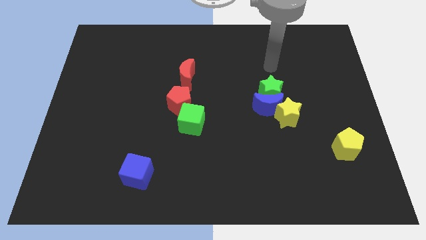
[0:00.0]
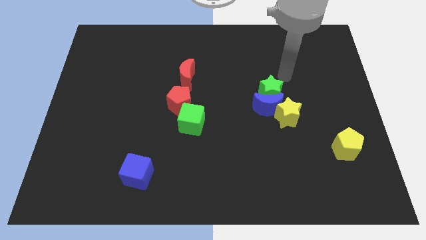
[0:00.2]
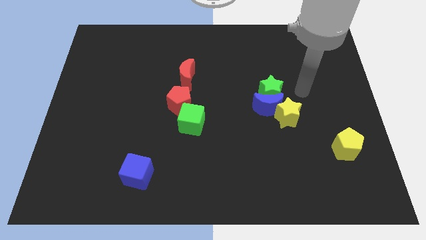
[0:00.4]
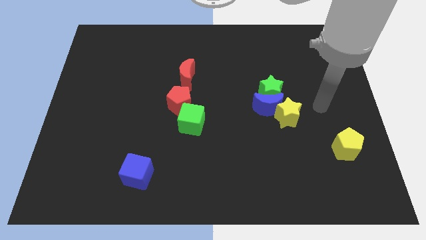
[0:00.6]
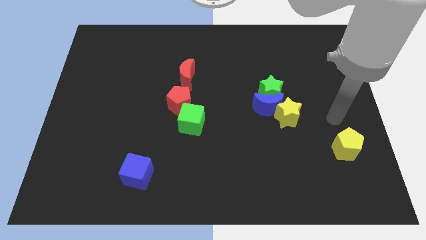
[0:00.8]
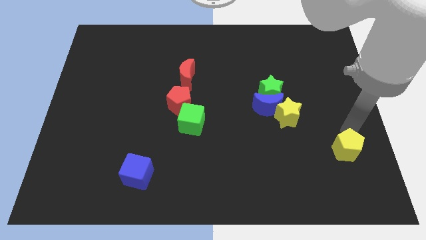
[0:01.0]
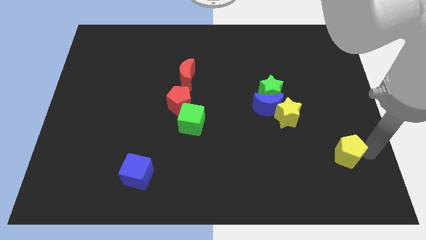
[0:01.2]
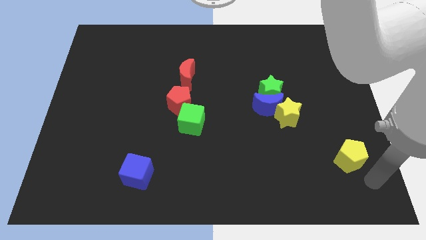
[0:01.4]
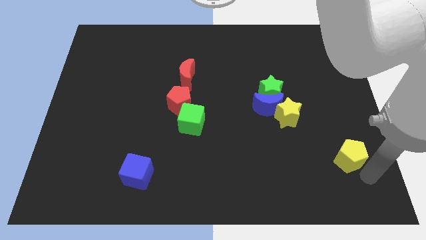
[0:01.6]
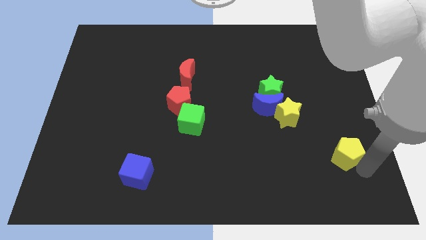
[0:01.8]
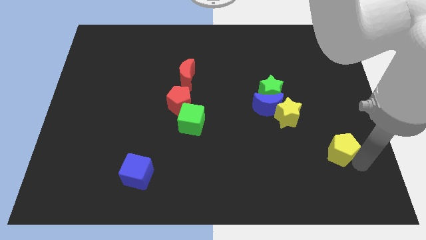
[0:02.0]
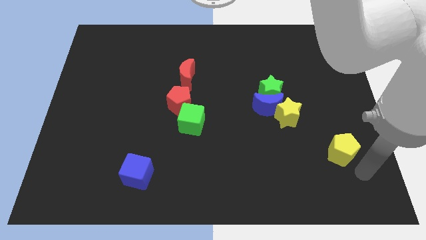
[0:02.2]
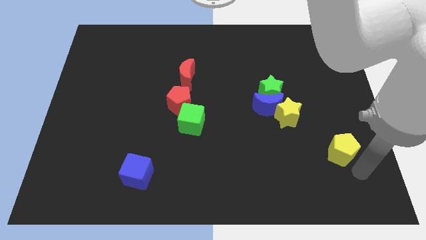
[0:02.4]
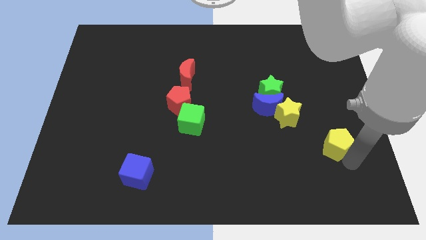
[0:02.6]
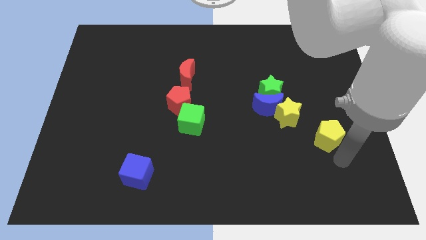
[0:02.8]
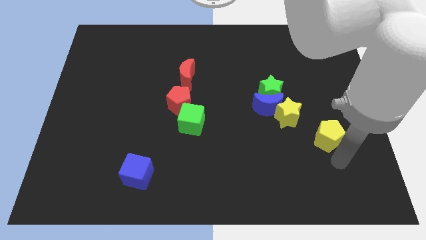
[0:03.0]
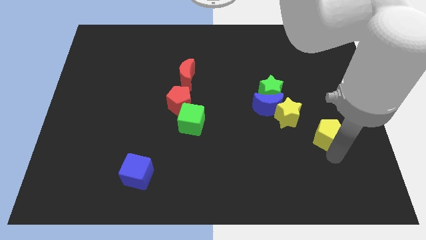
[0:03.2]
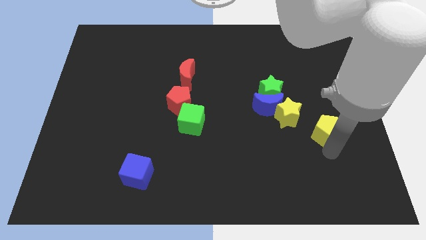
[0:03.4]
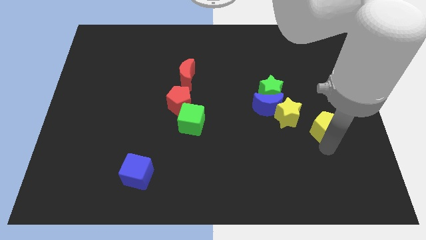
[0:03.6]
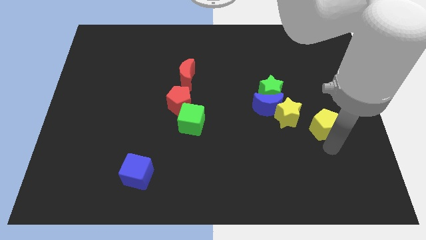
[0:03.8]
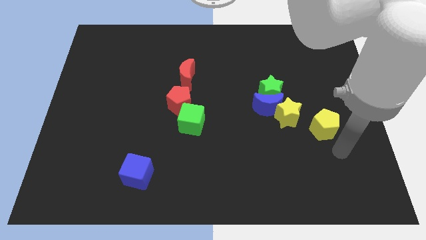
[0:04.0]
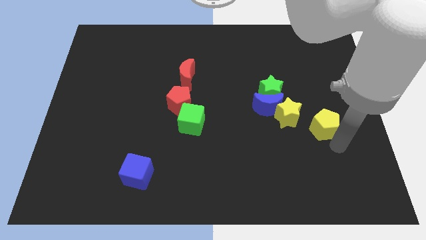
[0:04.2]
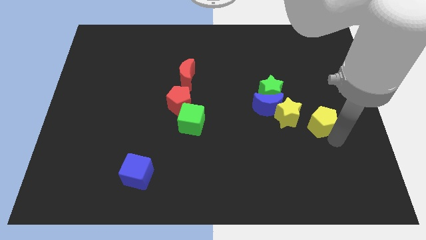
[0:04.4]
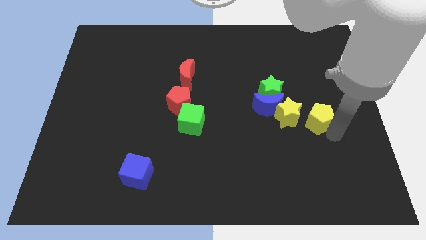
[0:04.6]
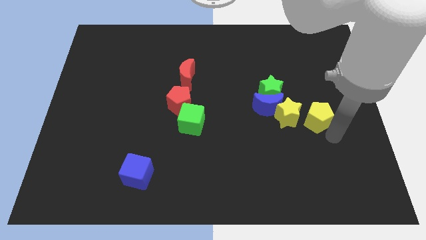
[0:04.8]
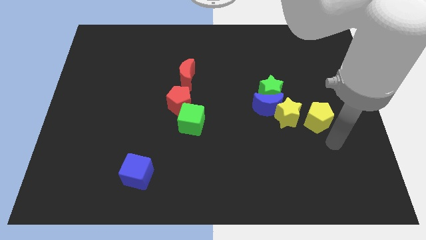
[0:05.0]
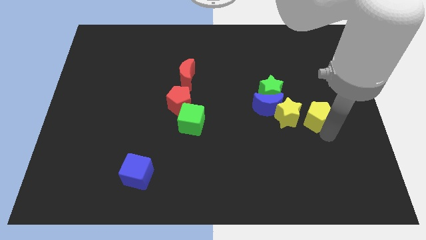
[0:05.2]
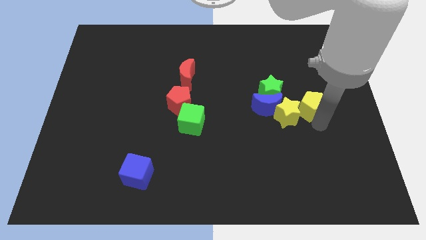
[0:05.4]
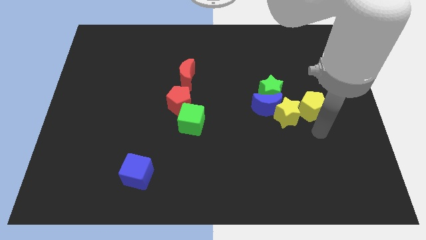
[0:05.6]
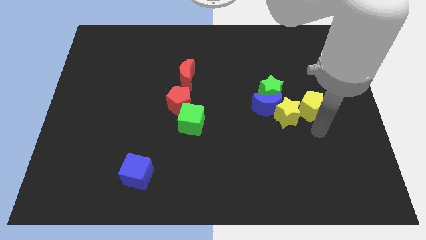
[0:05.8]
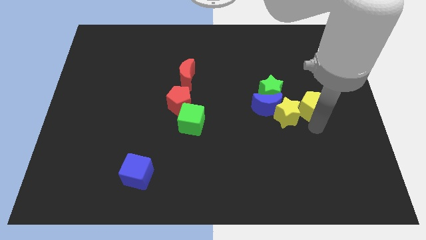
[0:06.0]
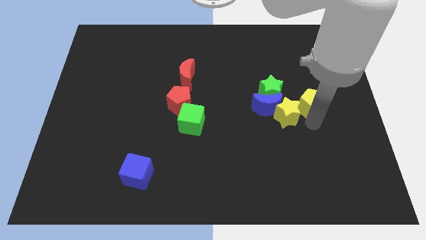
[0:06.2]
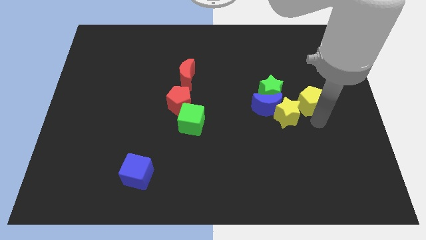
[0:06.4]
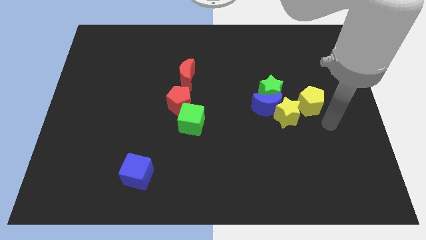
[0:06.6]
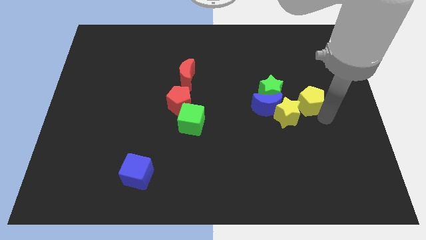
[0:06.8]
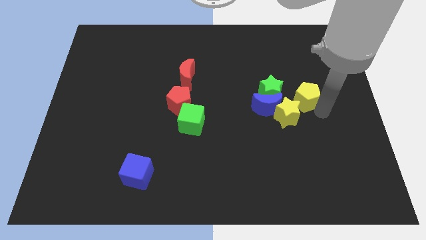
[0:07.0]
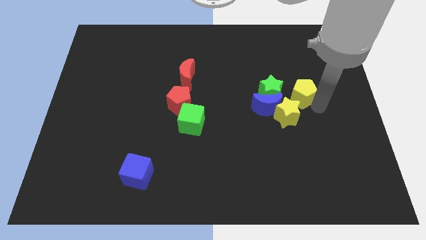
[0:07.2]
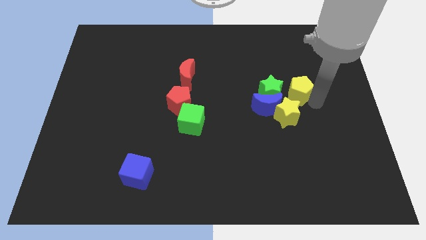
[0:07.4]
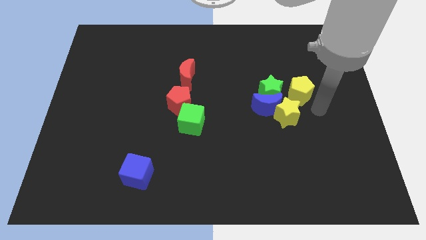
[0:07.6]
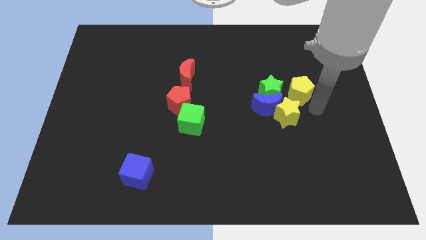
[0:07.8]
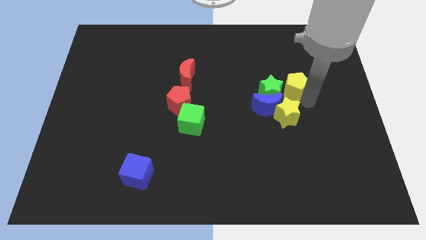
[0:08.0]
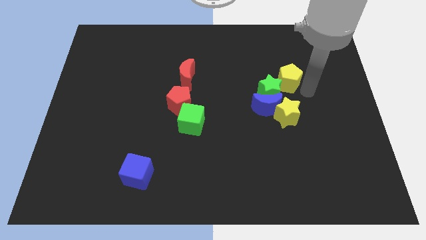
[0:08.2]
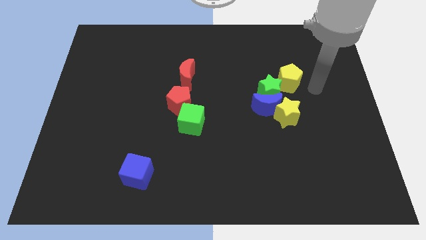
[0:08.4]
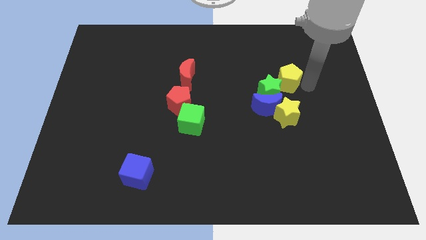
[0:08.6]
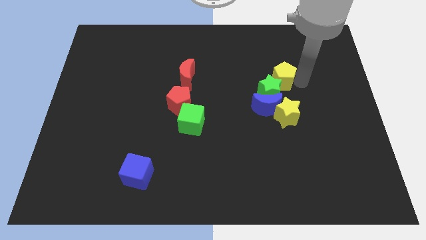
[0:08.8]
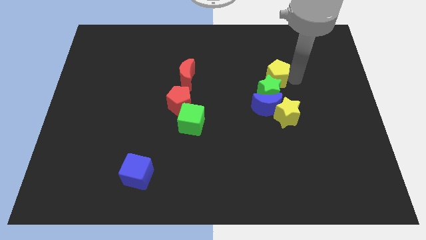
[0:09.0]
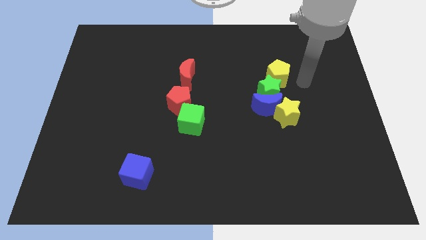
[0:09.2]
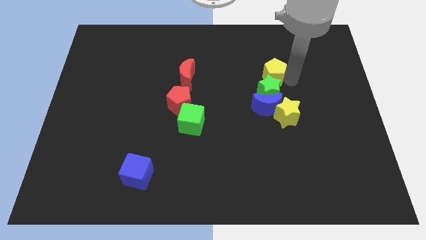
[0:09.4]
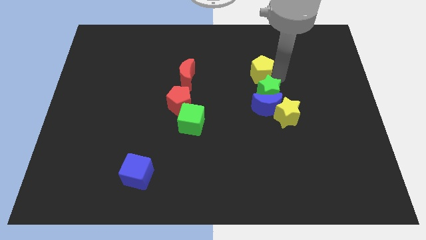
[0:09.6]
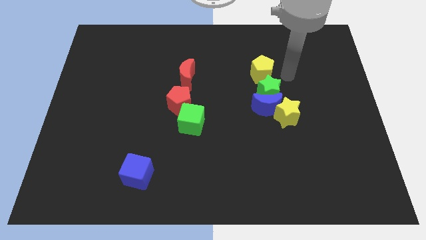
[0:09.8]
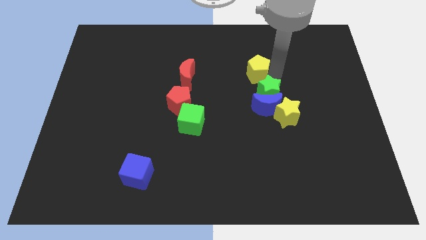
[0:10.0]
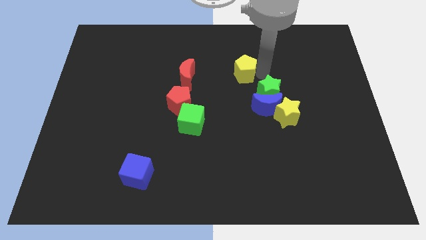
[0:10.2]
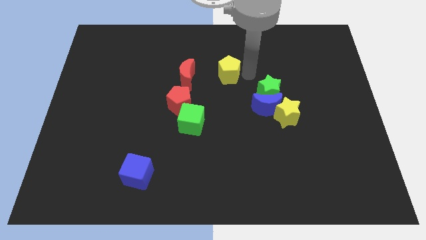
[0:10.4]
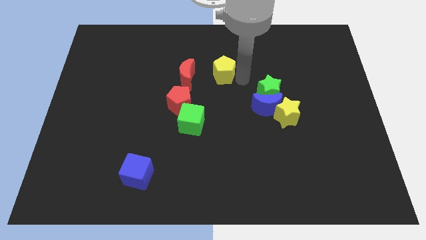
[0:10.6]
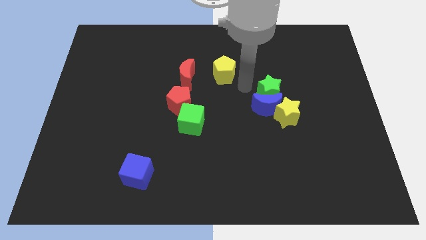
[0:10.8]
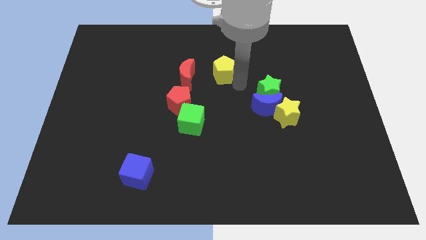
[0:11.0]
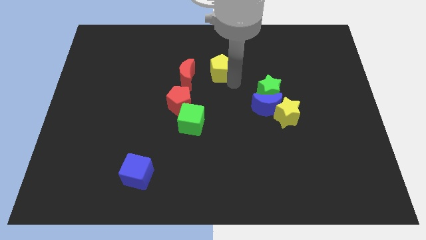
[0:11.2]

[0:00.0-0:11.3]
move the yellow pentagon to the top right of the red moon

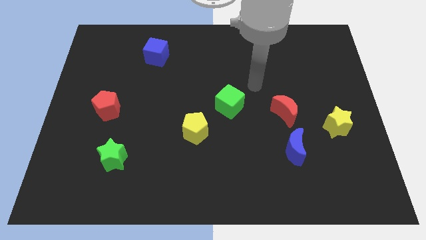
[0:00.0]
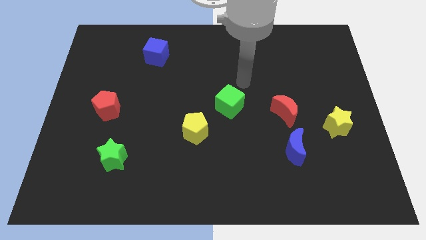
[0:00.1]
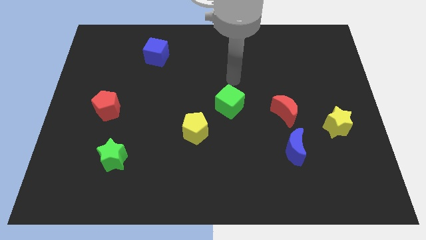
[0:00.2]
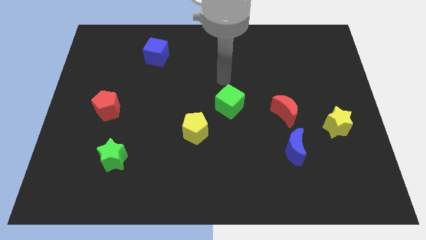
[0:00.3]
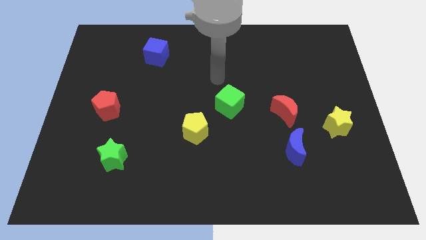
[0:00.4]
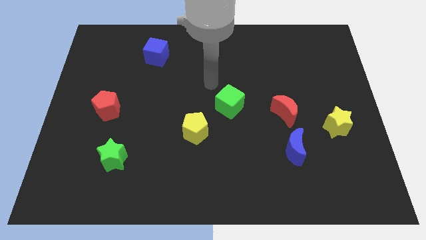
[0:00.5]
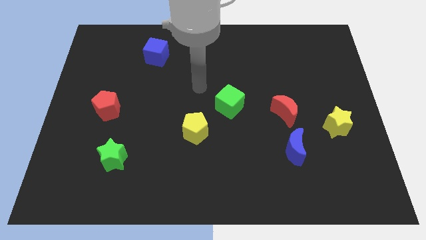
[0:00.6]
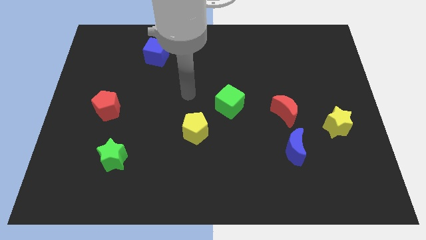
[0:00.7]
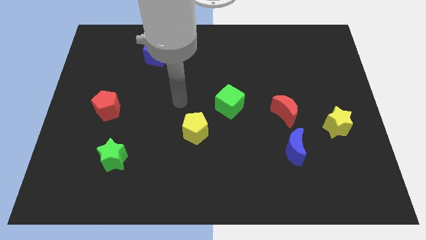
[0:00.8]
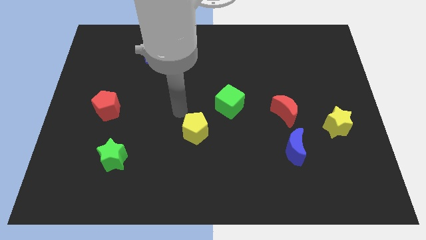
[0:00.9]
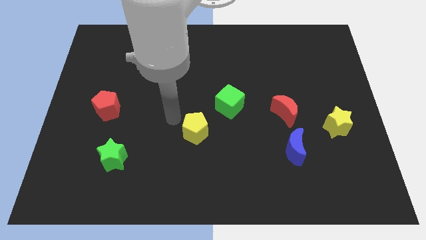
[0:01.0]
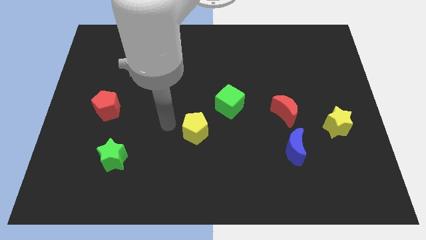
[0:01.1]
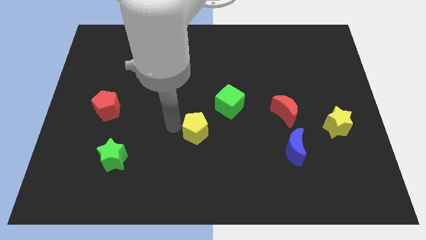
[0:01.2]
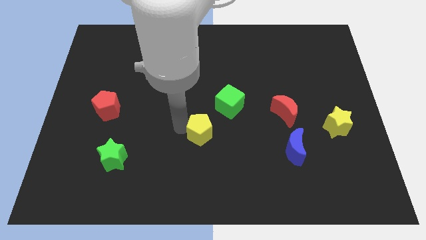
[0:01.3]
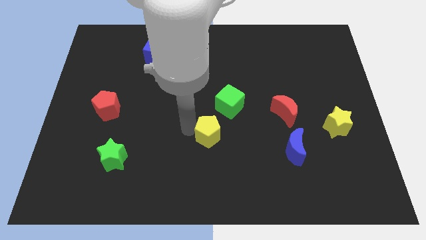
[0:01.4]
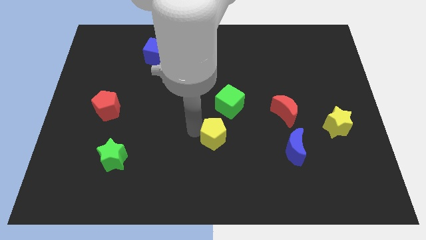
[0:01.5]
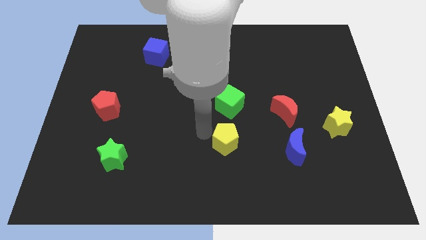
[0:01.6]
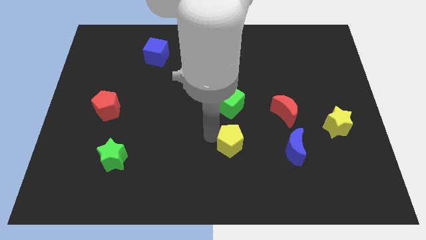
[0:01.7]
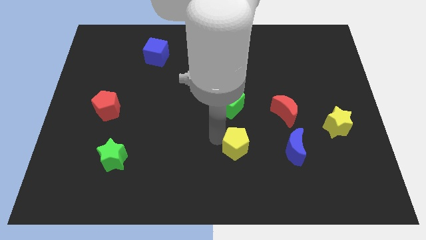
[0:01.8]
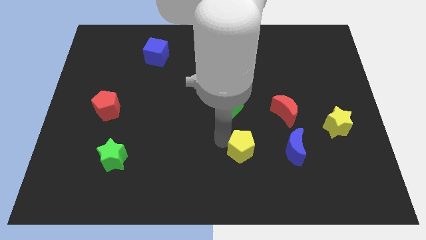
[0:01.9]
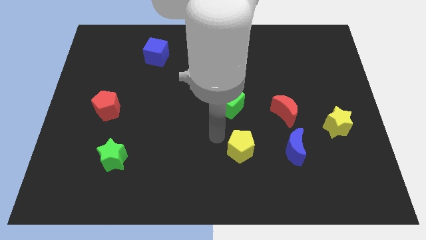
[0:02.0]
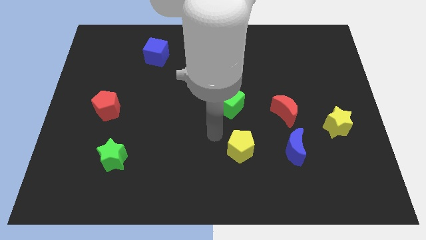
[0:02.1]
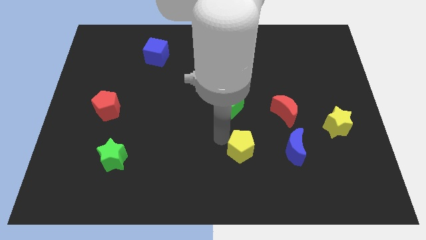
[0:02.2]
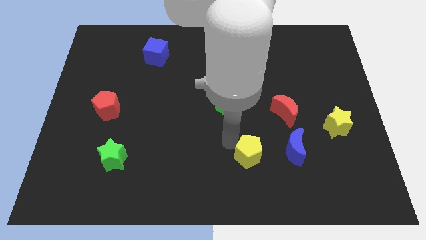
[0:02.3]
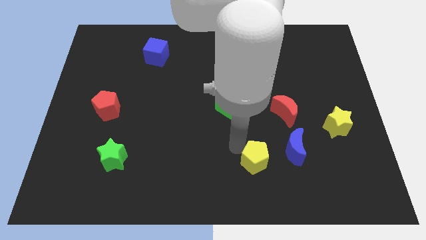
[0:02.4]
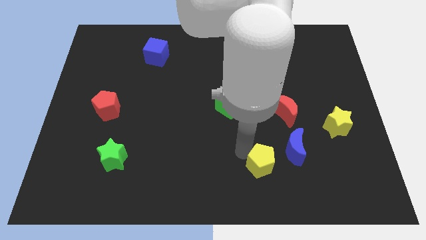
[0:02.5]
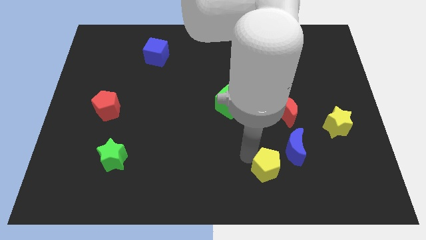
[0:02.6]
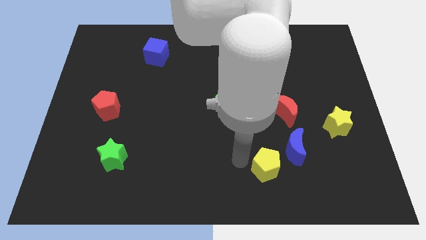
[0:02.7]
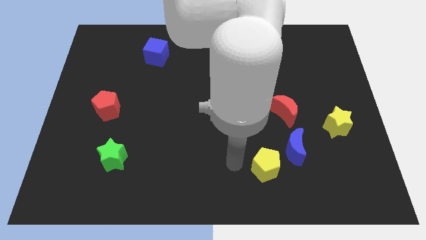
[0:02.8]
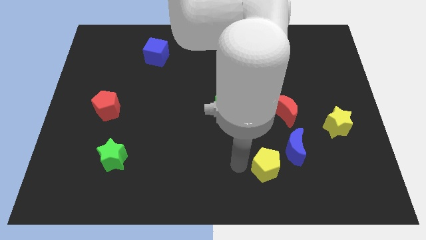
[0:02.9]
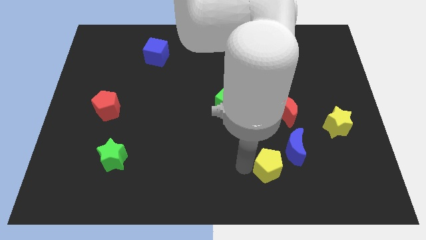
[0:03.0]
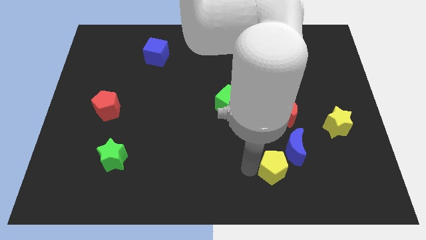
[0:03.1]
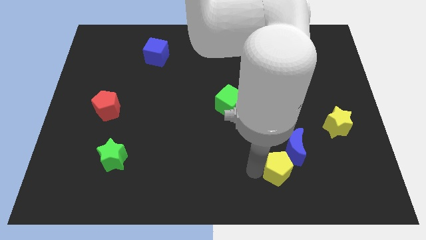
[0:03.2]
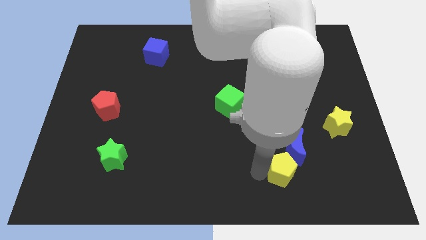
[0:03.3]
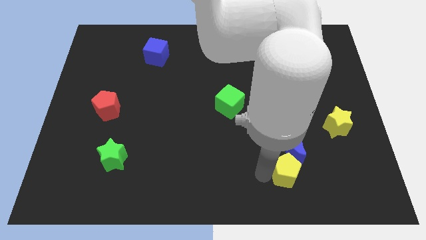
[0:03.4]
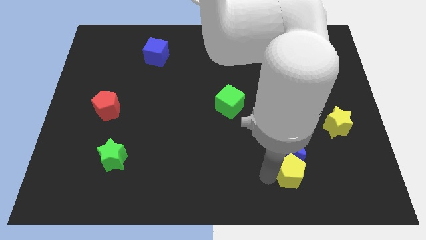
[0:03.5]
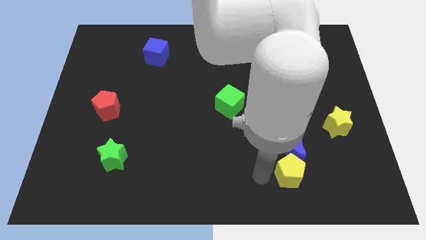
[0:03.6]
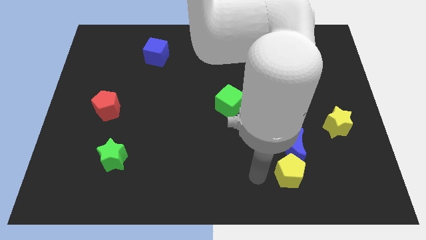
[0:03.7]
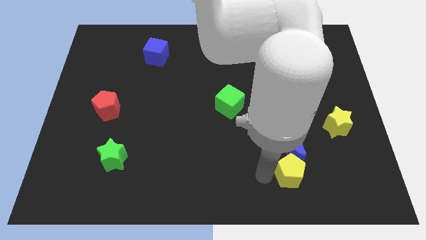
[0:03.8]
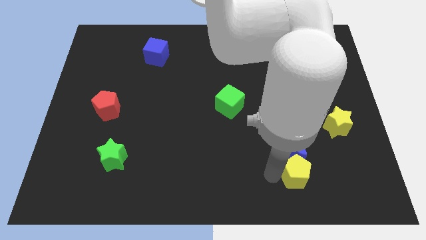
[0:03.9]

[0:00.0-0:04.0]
move the yellow pentagon diagonally down and to the right of the blue moon
